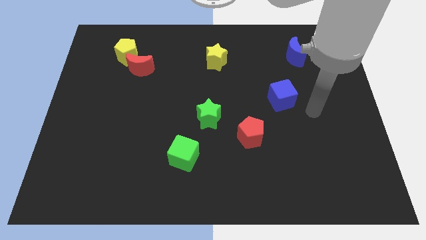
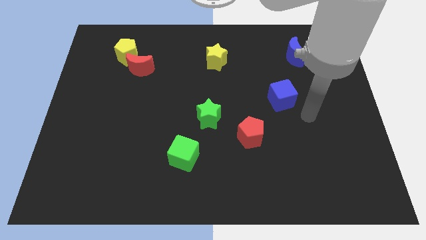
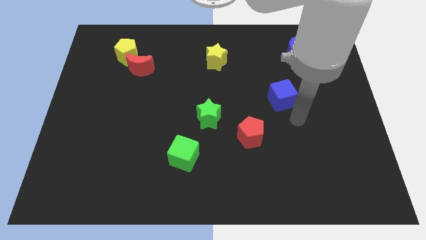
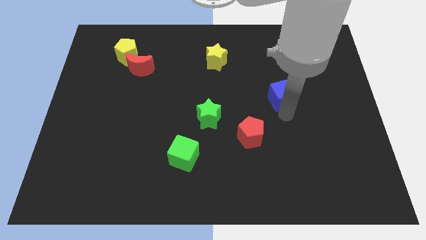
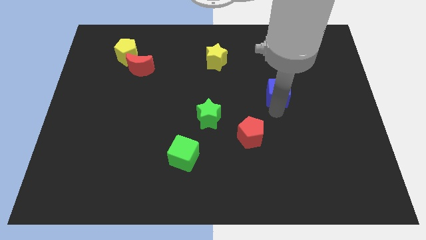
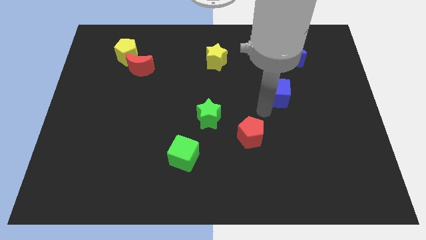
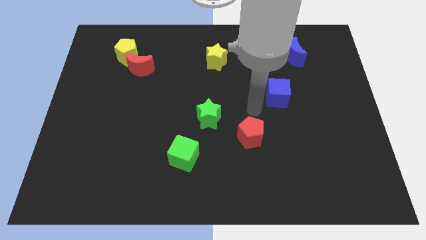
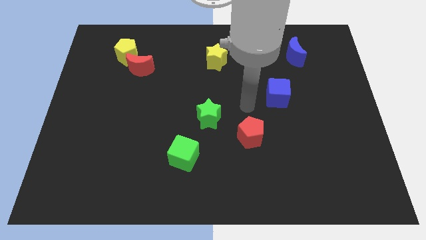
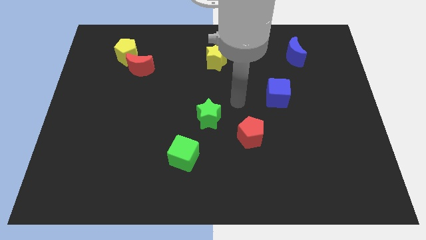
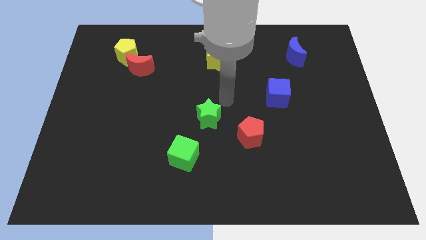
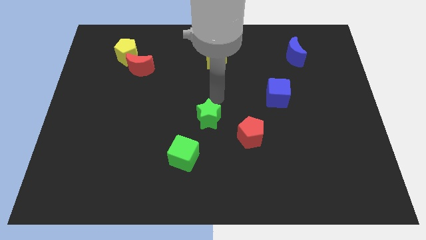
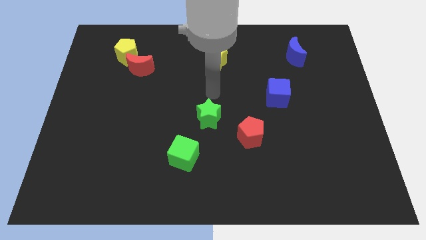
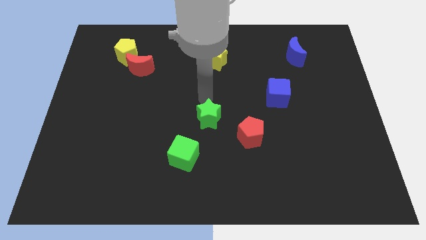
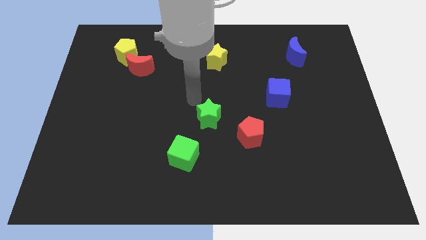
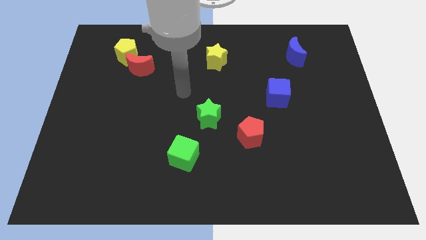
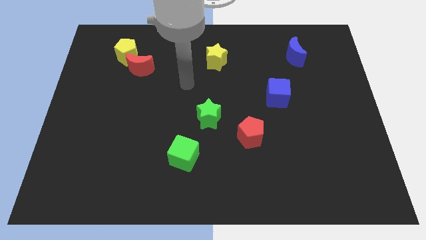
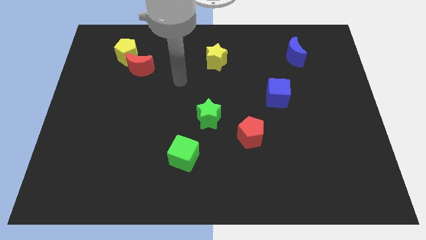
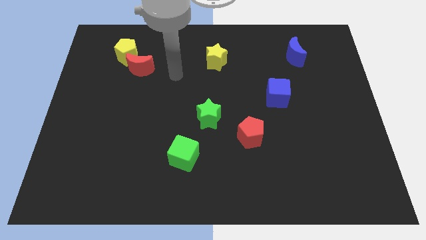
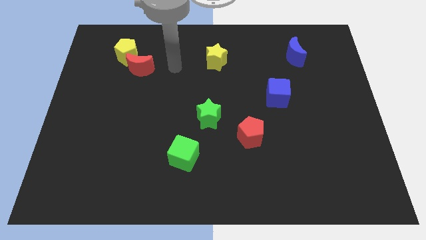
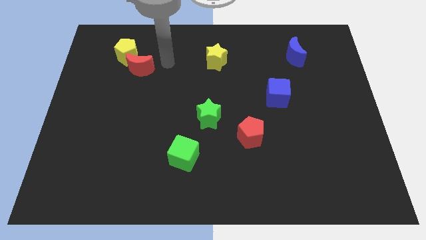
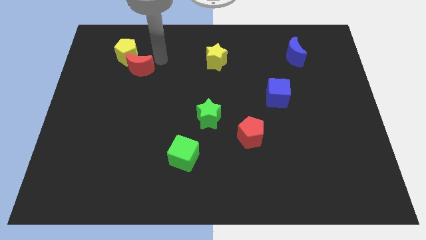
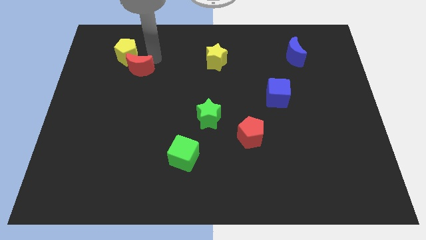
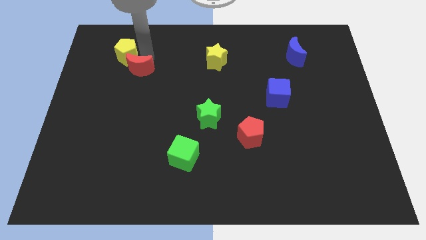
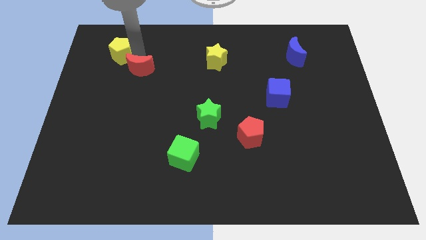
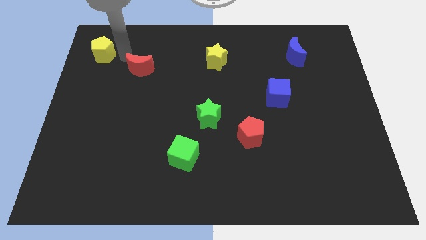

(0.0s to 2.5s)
move the red moon away from the yellow pentagon

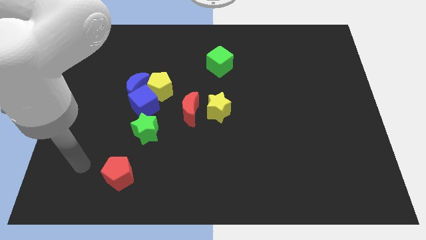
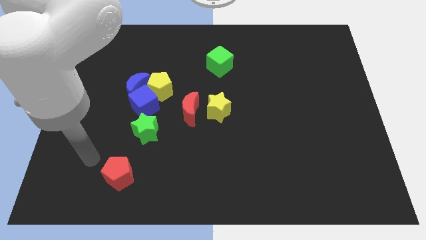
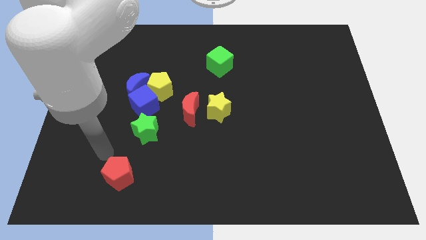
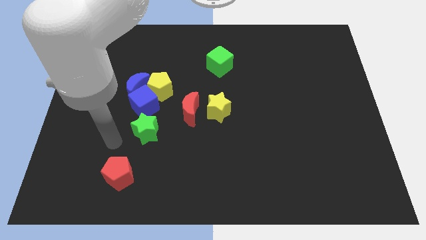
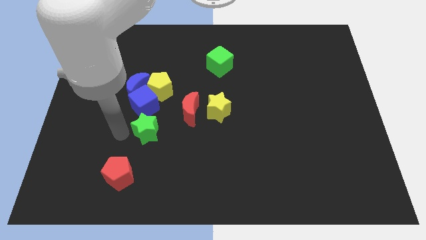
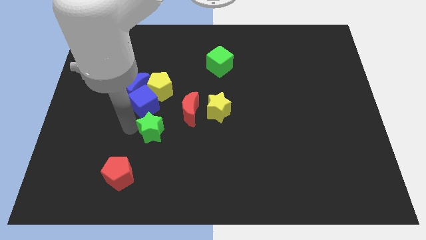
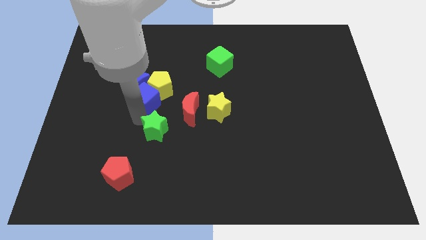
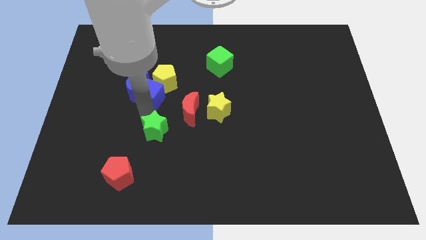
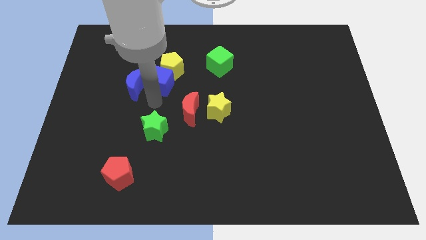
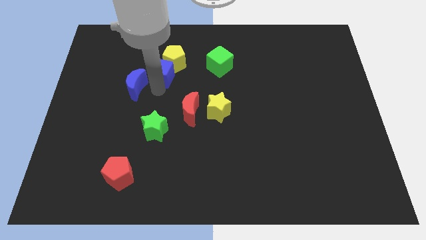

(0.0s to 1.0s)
move the blue moon away from the blue cube and yellow pentagon

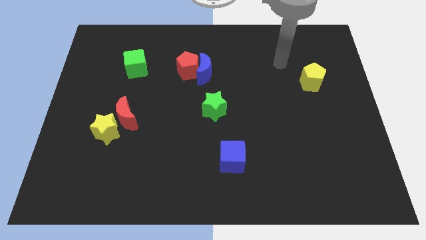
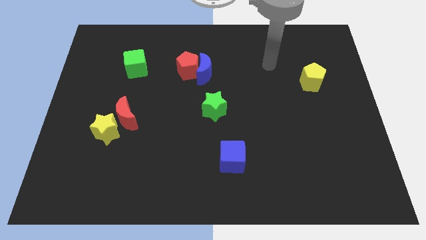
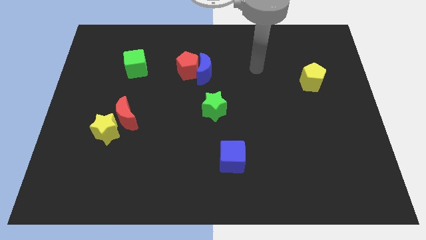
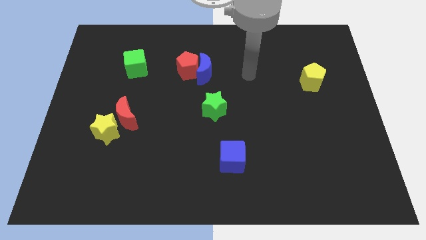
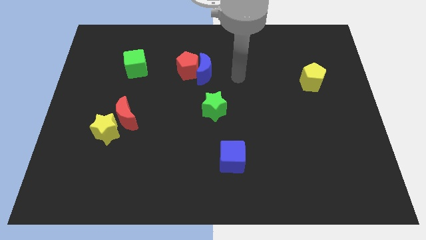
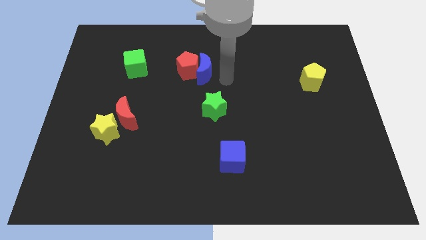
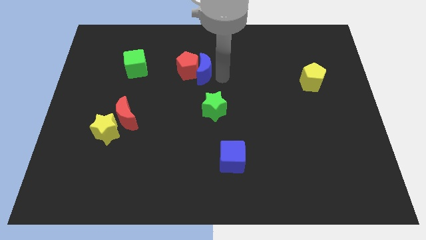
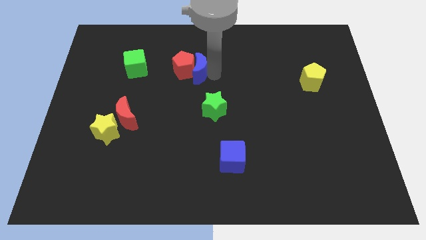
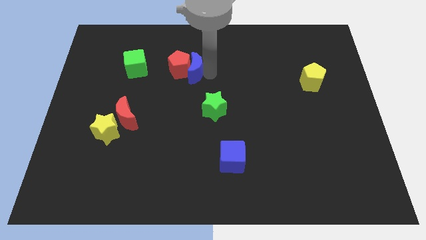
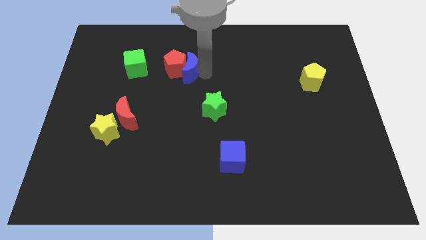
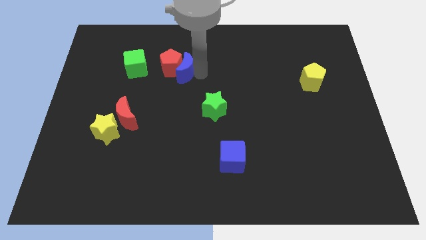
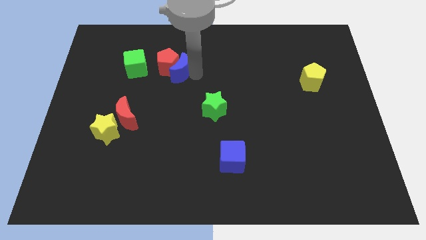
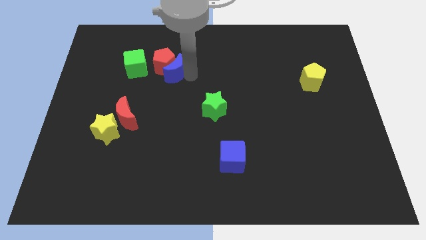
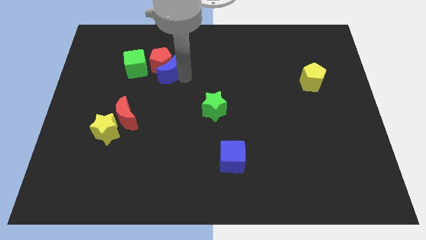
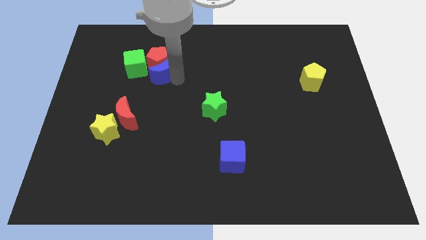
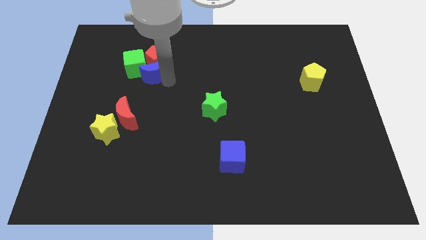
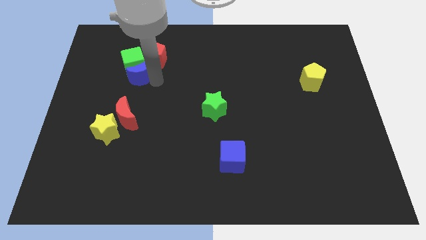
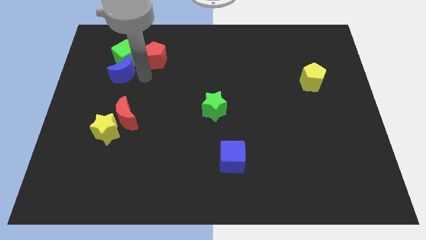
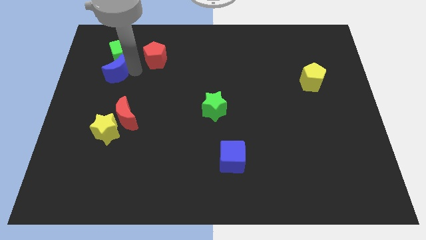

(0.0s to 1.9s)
separate the red pentagon from the blue moon

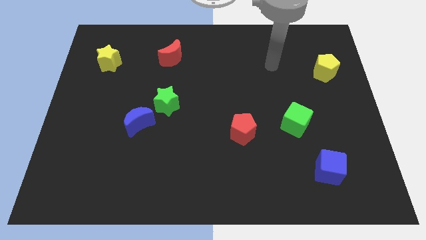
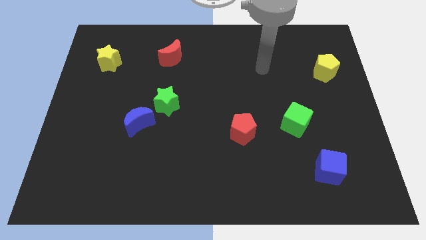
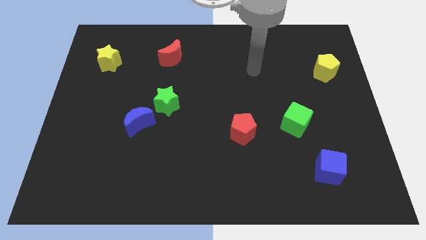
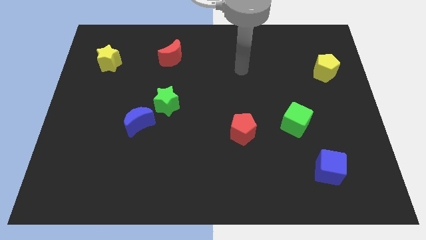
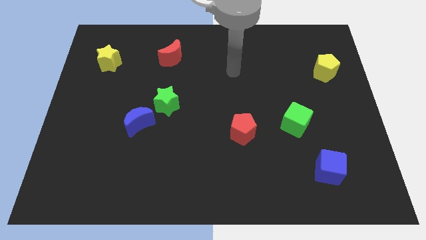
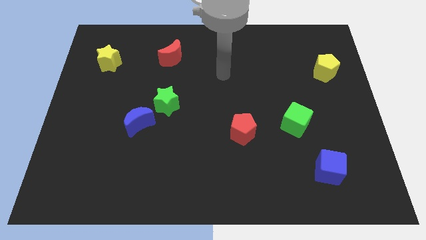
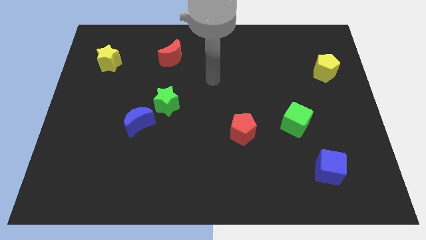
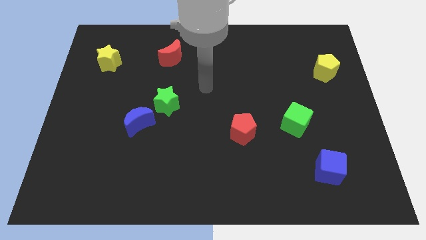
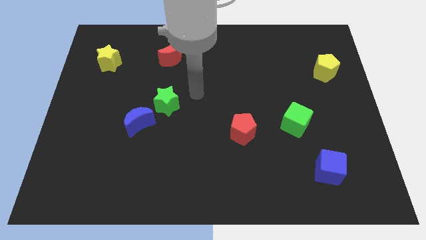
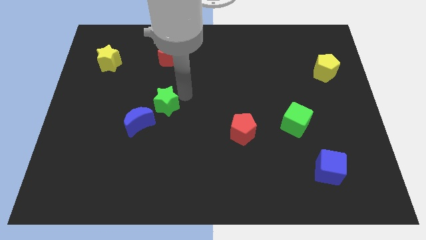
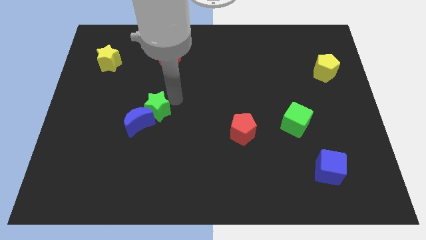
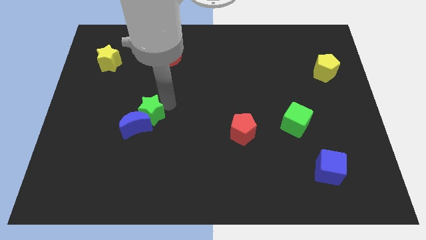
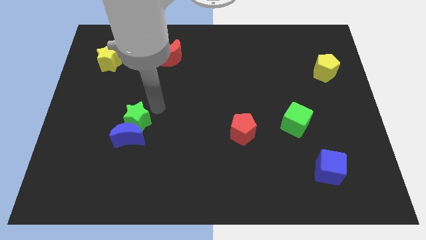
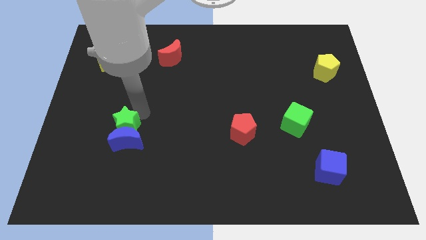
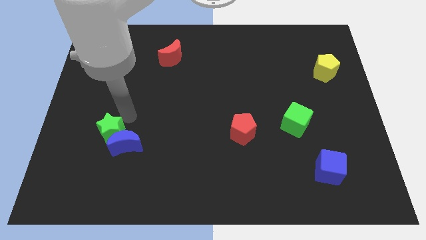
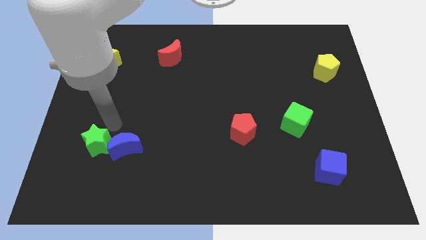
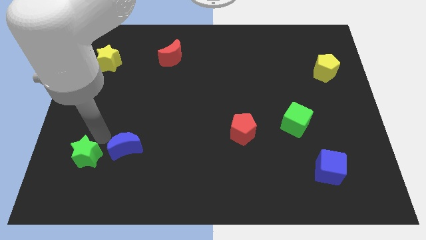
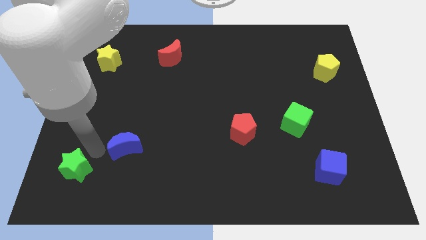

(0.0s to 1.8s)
move the blue moon away from the green star

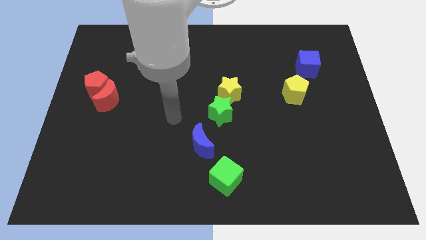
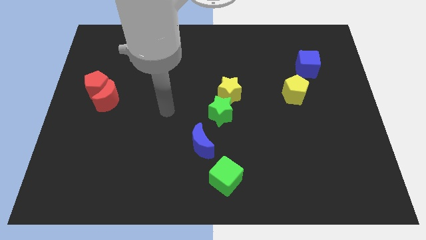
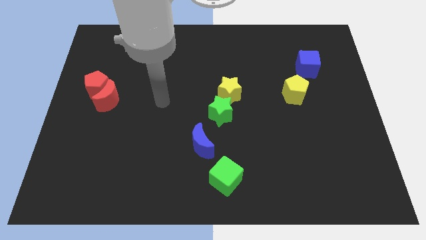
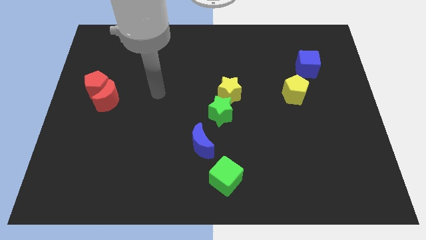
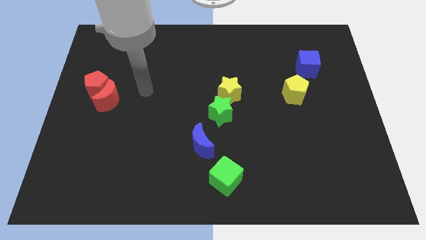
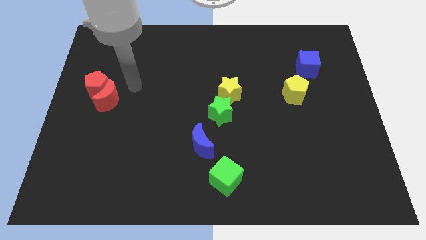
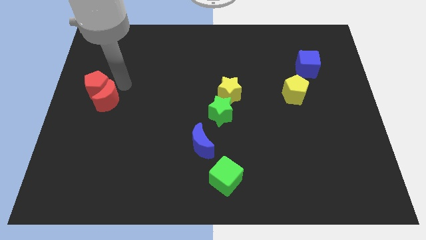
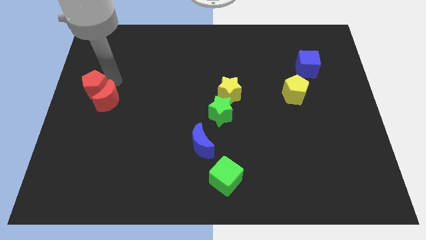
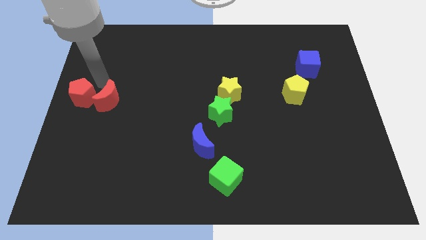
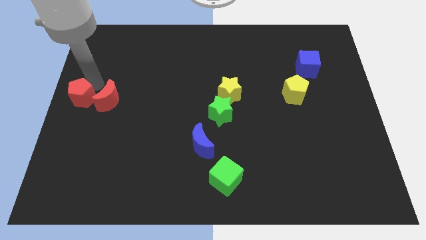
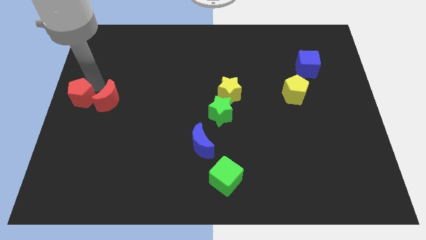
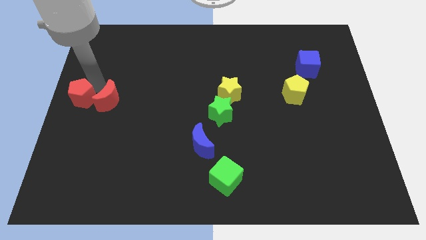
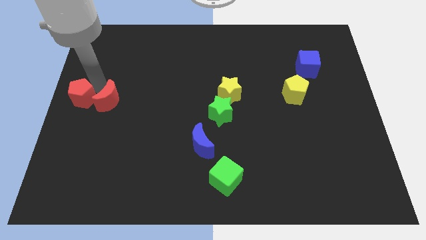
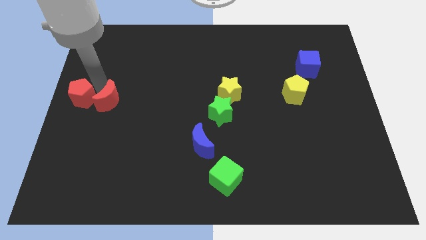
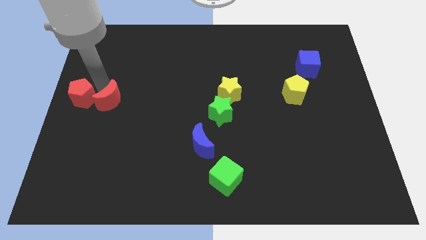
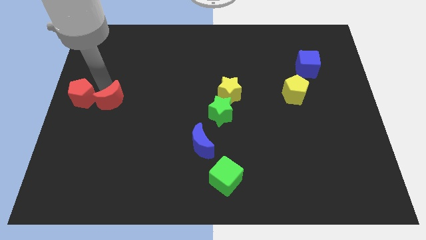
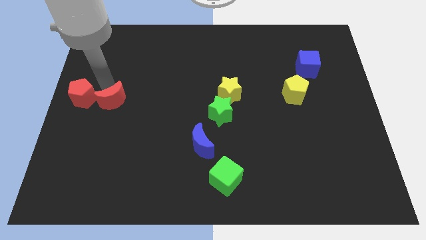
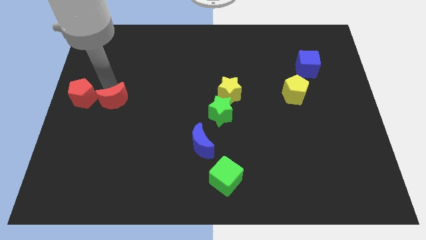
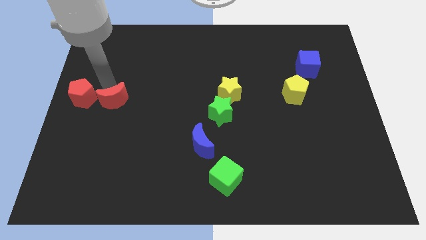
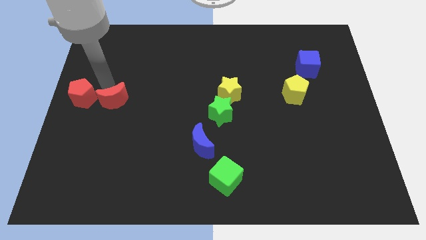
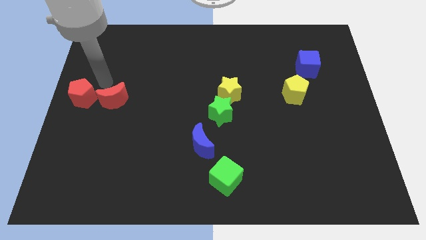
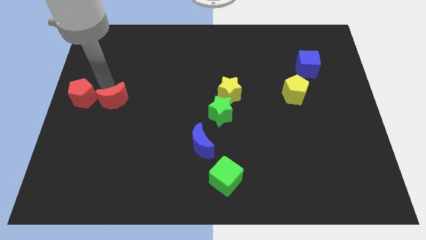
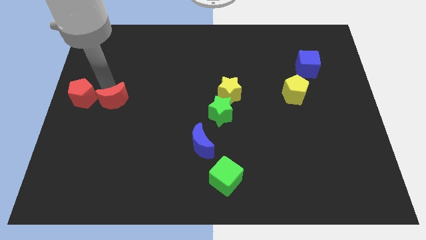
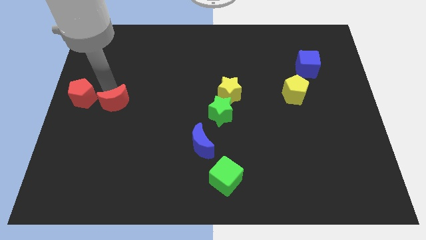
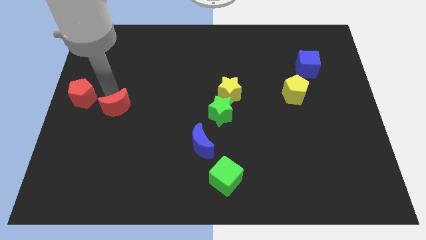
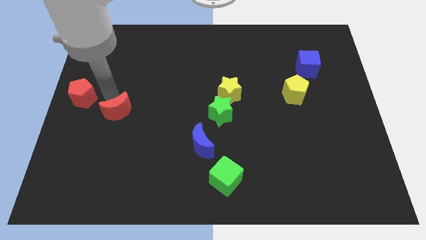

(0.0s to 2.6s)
move the red moon away from the red pentagon
